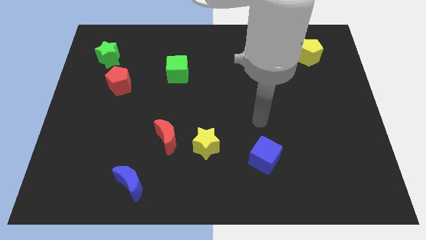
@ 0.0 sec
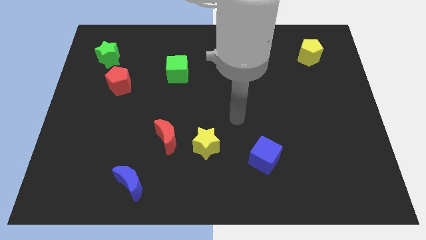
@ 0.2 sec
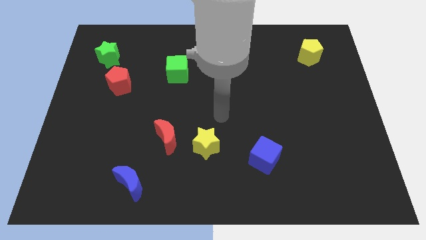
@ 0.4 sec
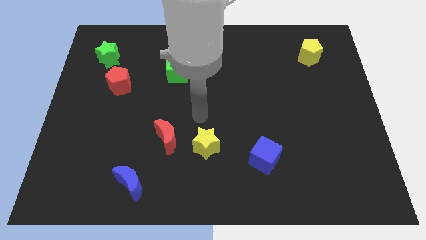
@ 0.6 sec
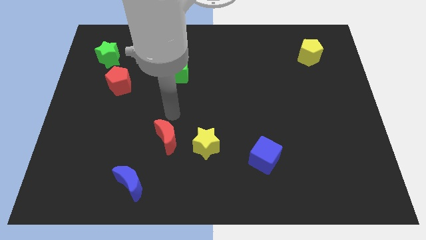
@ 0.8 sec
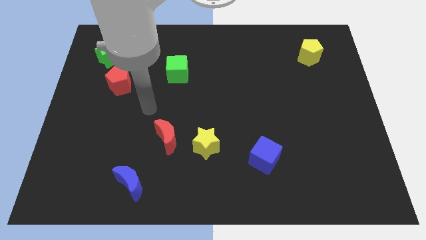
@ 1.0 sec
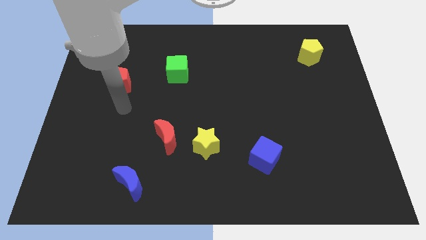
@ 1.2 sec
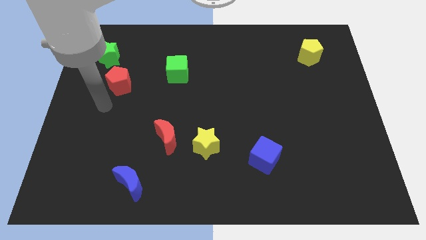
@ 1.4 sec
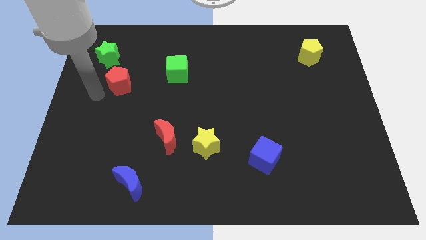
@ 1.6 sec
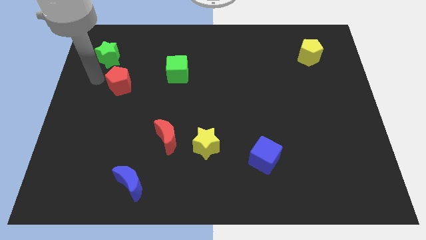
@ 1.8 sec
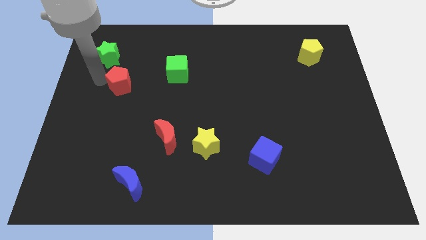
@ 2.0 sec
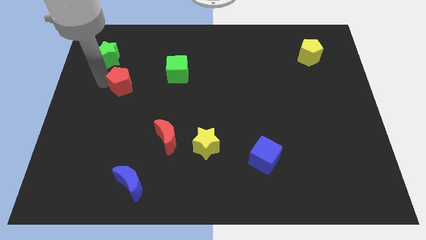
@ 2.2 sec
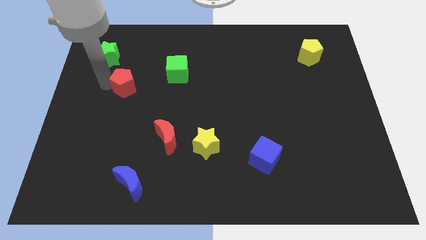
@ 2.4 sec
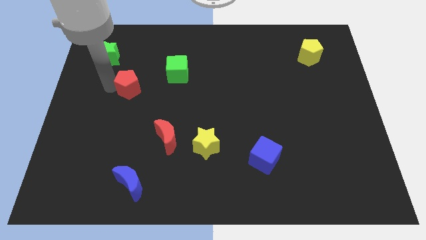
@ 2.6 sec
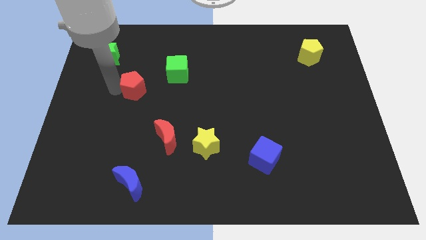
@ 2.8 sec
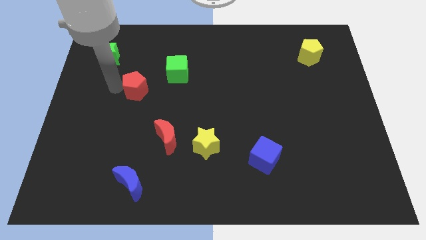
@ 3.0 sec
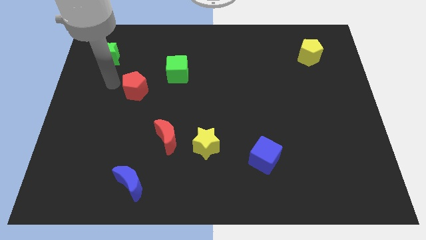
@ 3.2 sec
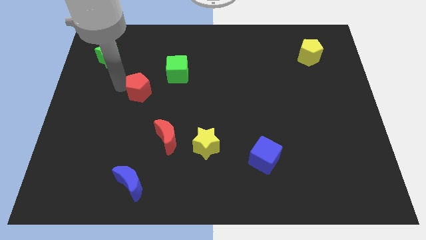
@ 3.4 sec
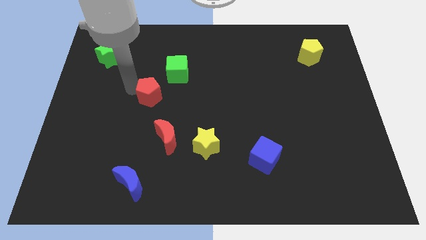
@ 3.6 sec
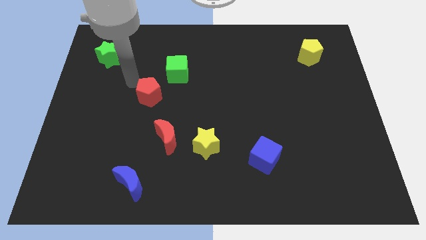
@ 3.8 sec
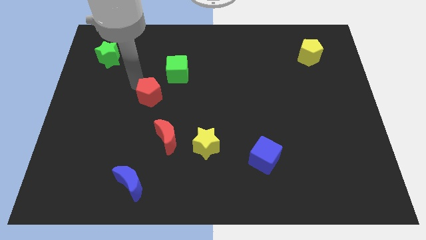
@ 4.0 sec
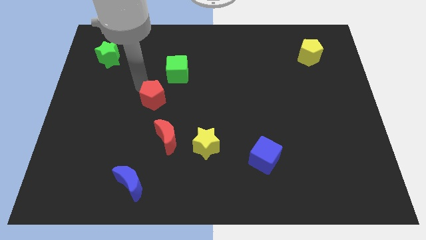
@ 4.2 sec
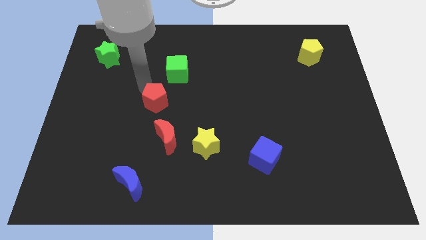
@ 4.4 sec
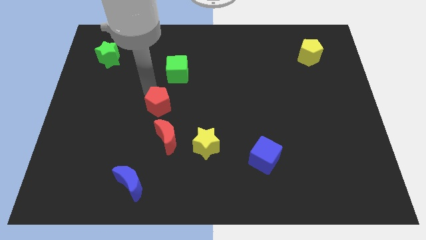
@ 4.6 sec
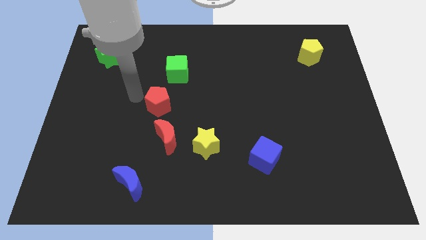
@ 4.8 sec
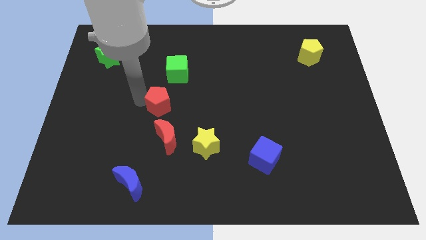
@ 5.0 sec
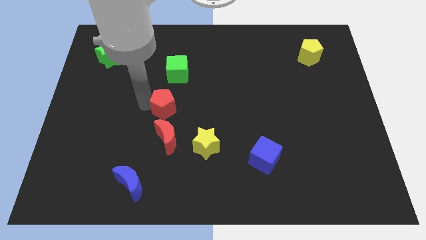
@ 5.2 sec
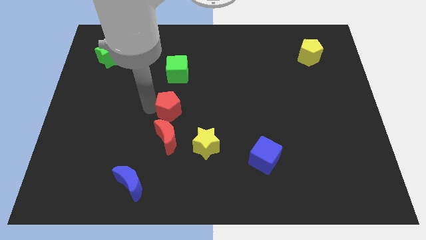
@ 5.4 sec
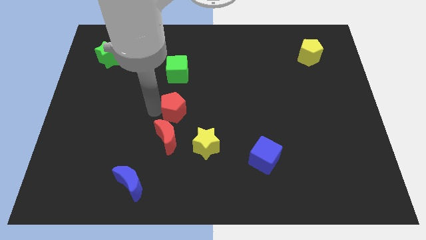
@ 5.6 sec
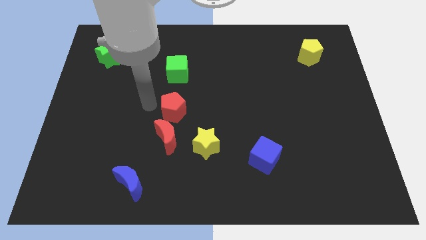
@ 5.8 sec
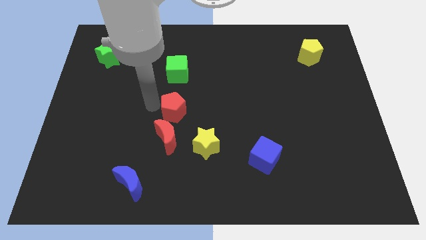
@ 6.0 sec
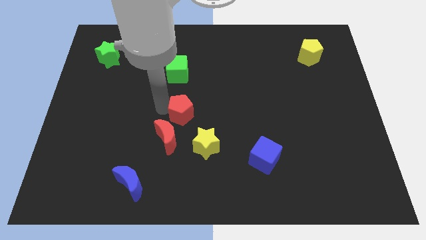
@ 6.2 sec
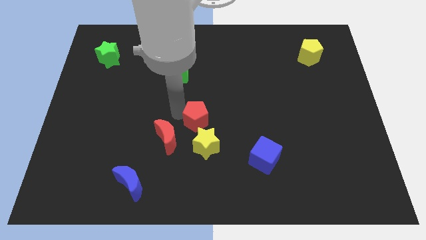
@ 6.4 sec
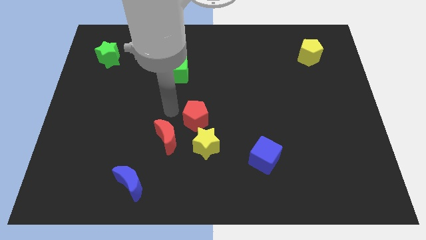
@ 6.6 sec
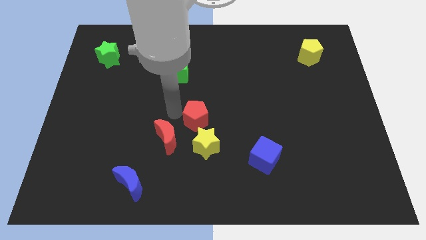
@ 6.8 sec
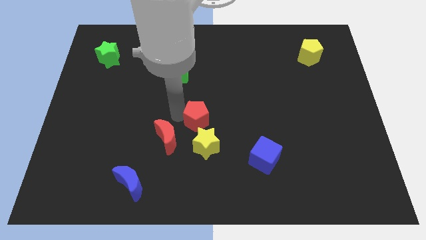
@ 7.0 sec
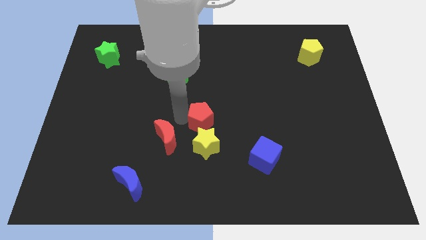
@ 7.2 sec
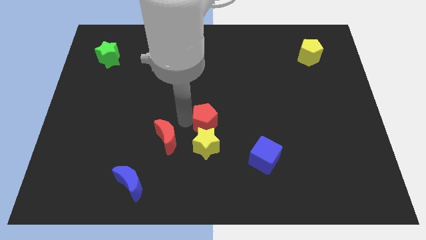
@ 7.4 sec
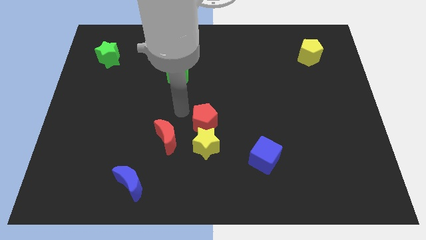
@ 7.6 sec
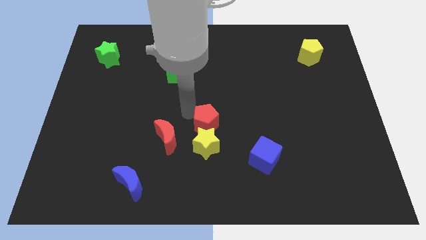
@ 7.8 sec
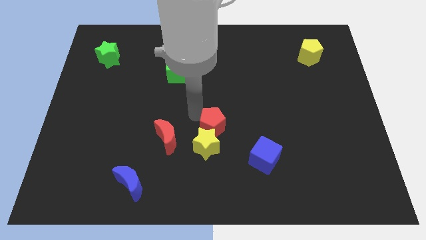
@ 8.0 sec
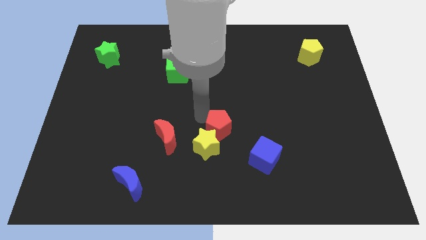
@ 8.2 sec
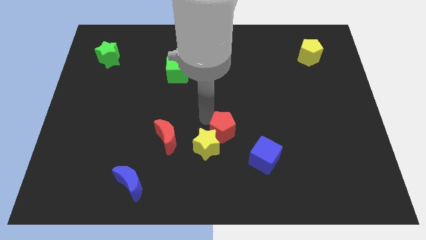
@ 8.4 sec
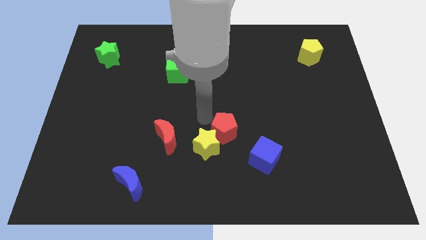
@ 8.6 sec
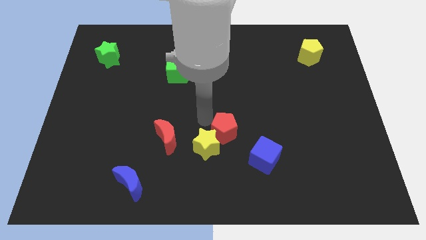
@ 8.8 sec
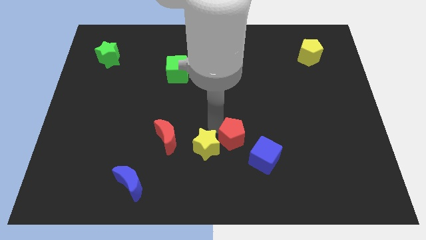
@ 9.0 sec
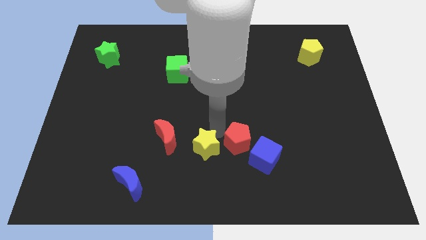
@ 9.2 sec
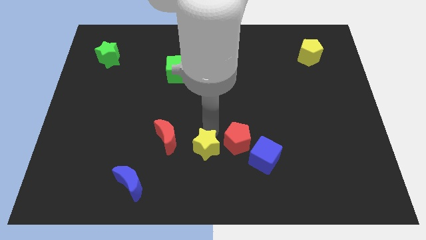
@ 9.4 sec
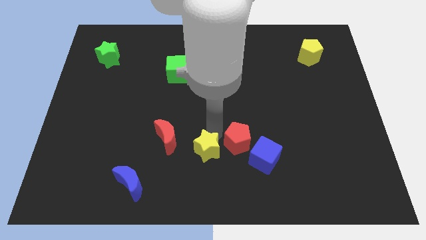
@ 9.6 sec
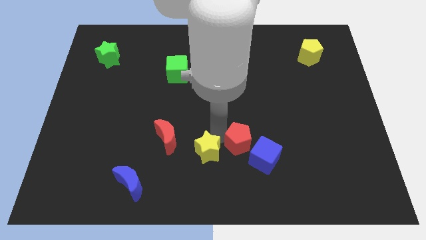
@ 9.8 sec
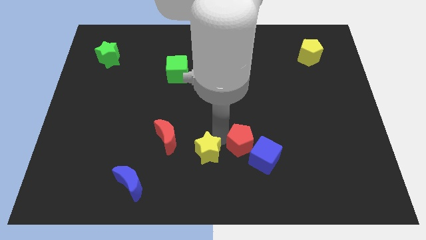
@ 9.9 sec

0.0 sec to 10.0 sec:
push the red pentagon next to the blue cube

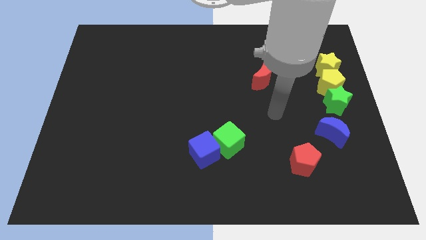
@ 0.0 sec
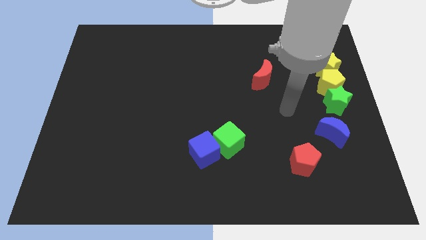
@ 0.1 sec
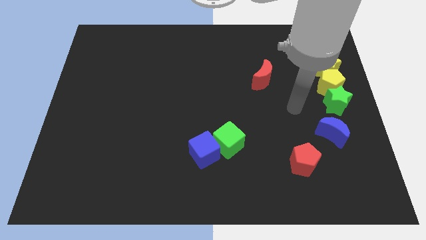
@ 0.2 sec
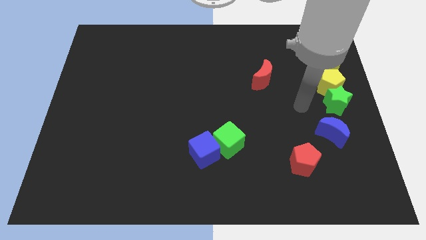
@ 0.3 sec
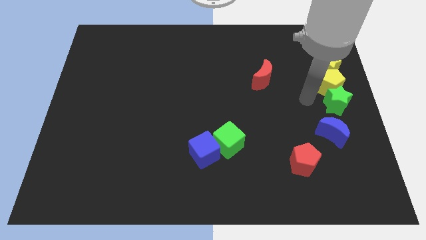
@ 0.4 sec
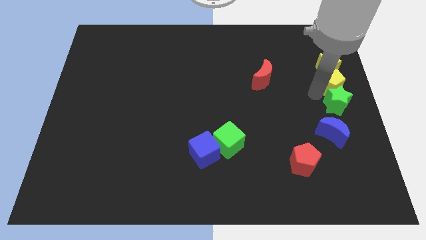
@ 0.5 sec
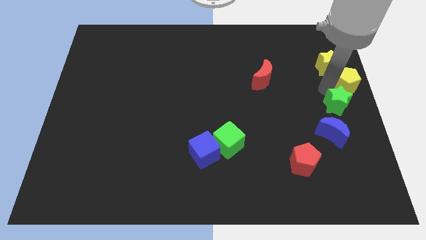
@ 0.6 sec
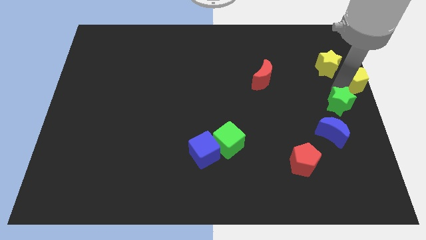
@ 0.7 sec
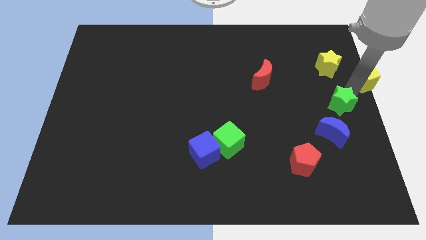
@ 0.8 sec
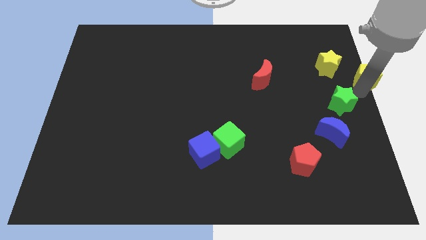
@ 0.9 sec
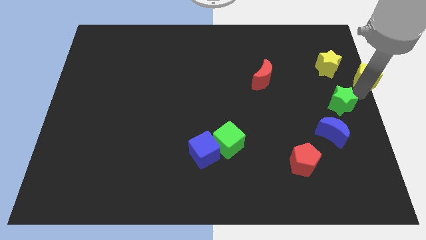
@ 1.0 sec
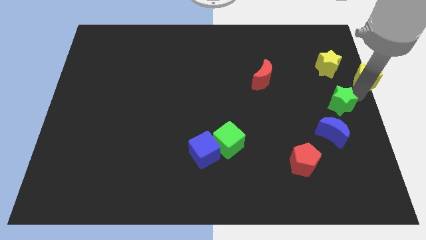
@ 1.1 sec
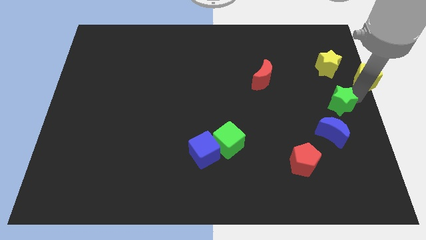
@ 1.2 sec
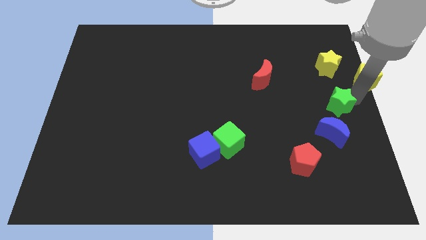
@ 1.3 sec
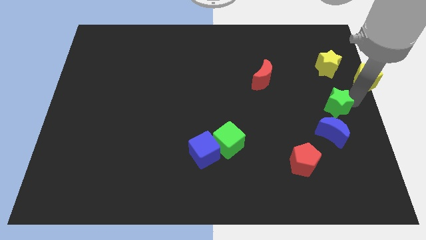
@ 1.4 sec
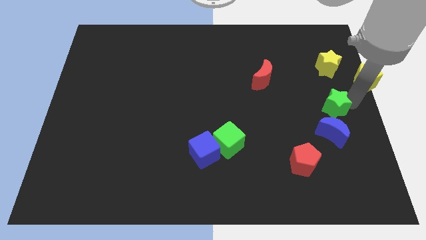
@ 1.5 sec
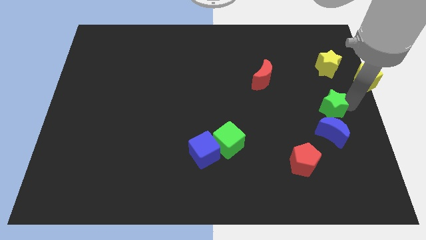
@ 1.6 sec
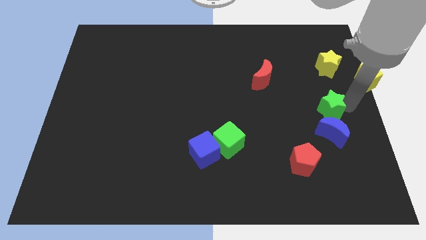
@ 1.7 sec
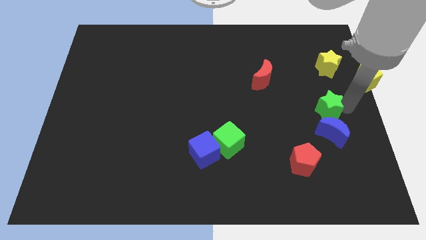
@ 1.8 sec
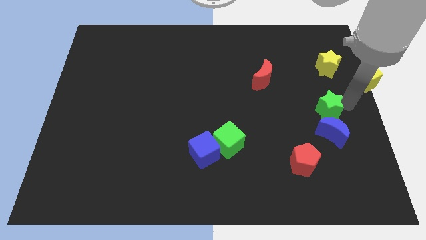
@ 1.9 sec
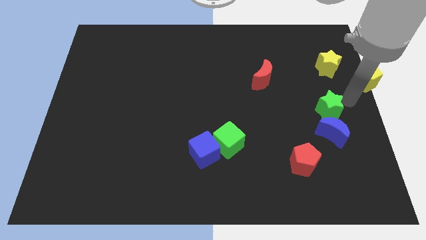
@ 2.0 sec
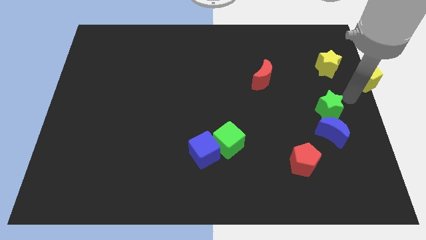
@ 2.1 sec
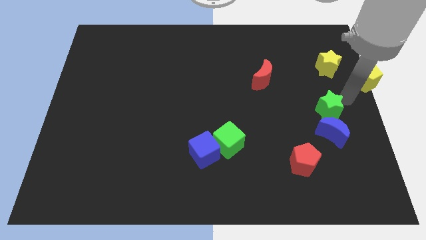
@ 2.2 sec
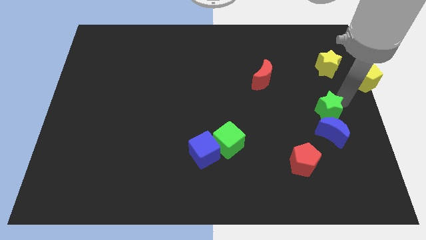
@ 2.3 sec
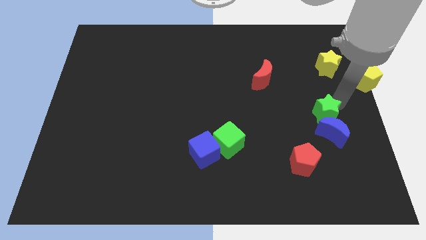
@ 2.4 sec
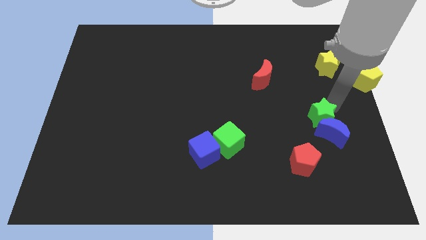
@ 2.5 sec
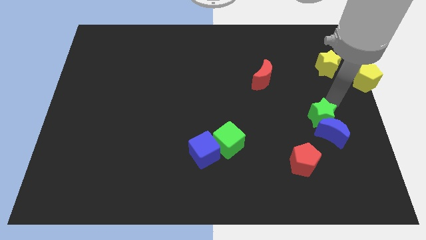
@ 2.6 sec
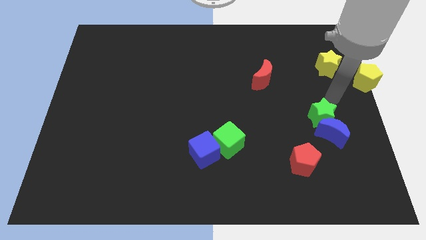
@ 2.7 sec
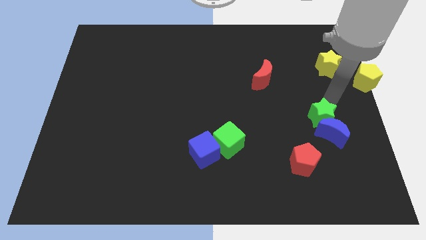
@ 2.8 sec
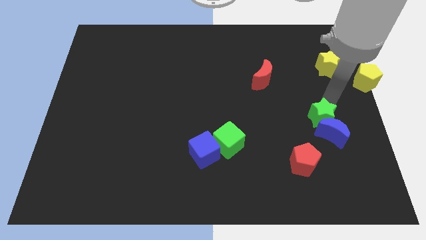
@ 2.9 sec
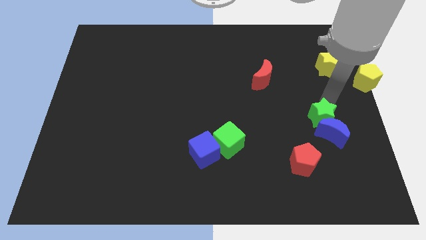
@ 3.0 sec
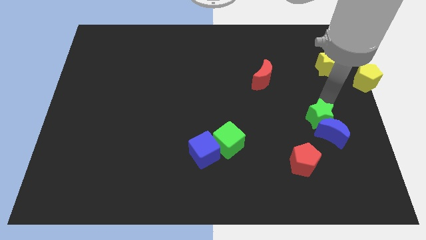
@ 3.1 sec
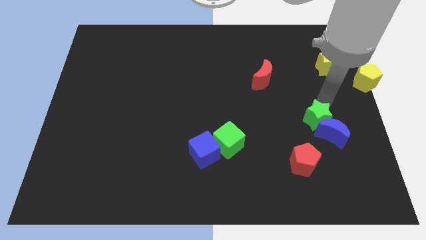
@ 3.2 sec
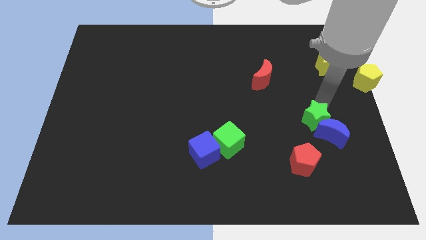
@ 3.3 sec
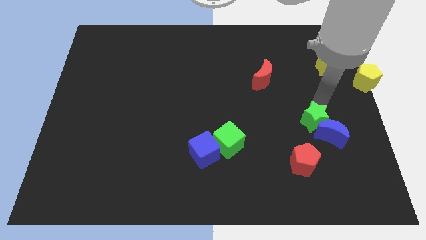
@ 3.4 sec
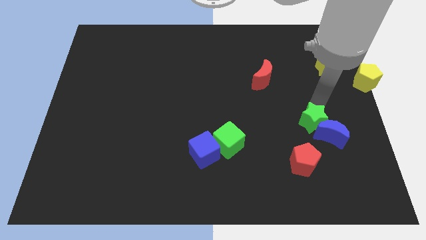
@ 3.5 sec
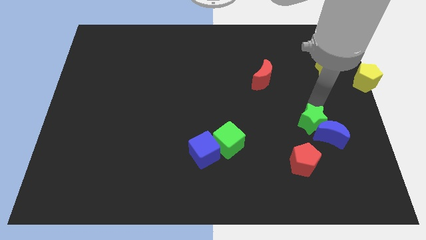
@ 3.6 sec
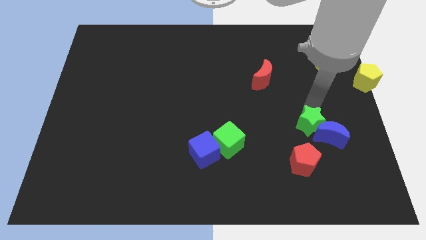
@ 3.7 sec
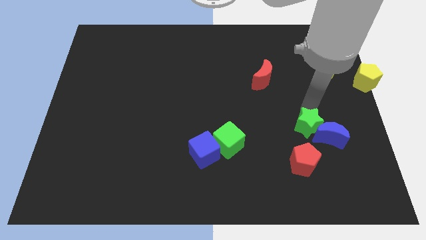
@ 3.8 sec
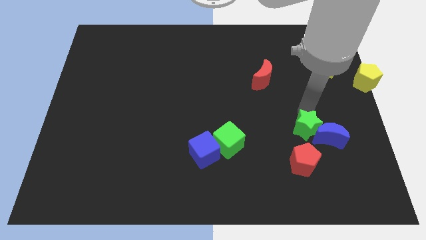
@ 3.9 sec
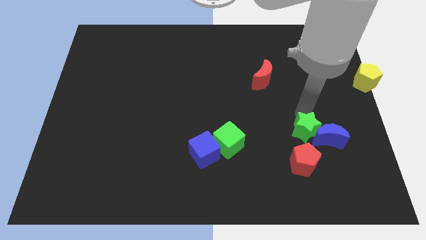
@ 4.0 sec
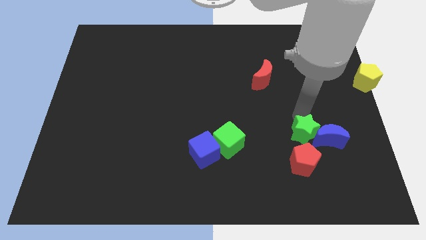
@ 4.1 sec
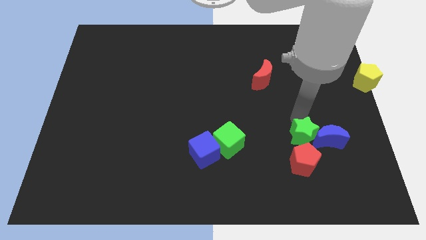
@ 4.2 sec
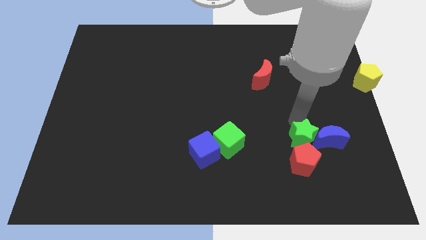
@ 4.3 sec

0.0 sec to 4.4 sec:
put the green star towards the red pentagon
